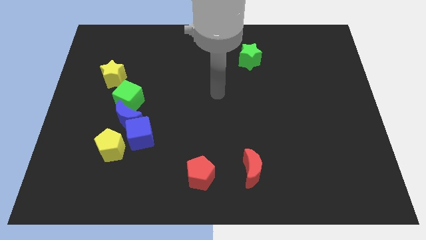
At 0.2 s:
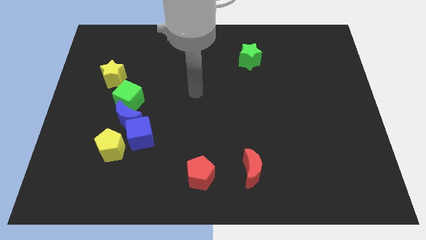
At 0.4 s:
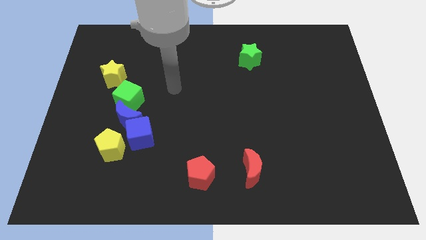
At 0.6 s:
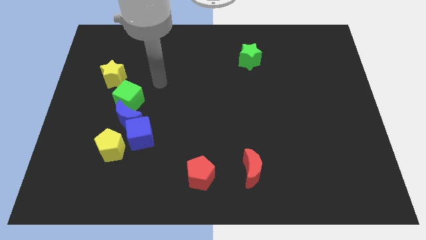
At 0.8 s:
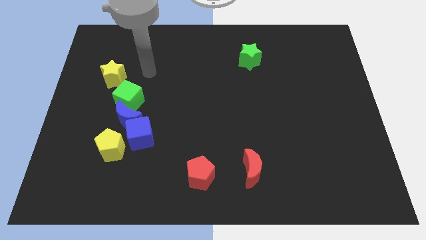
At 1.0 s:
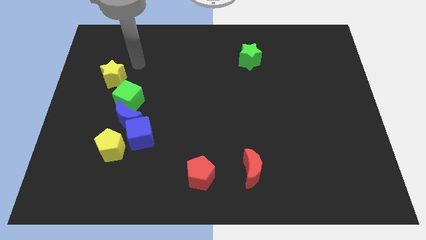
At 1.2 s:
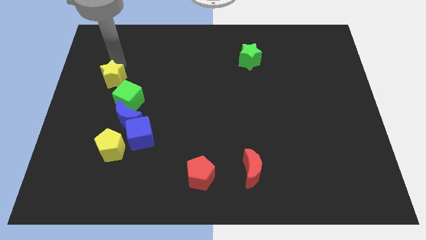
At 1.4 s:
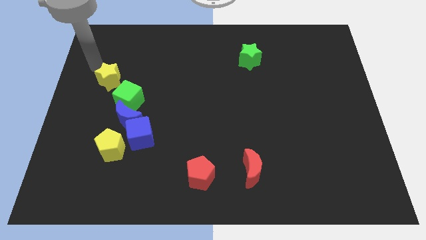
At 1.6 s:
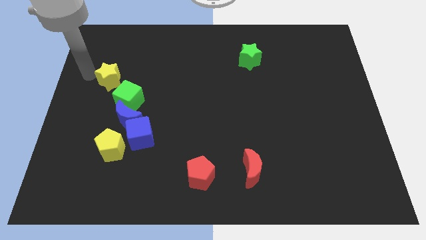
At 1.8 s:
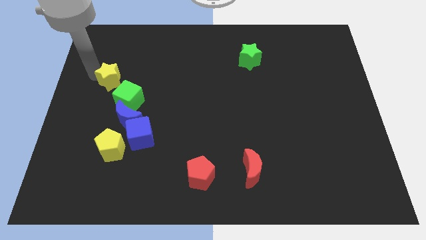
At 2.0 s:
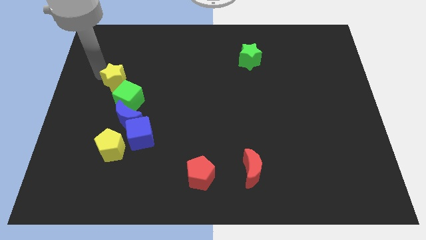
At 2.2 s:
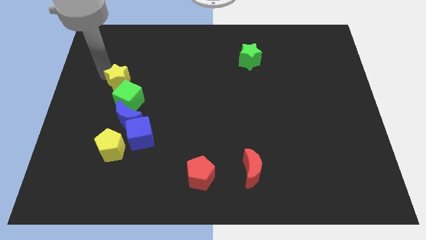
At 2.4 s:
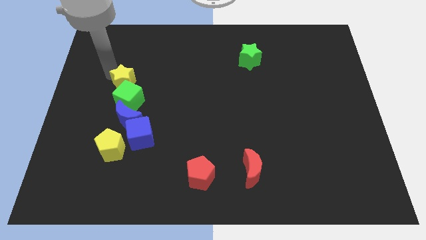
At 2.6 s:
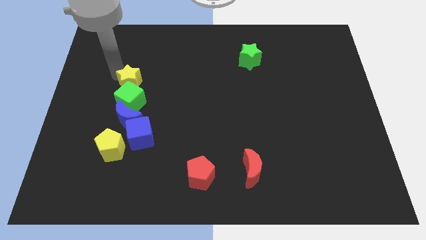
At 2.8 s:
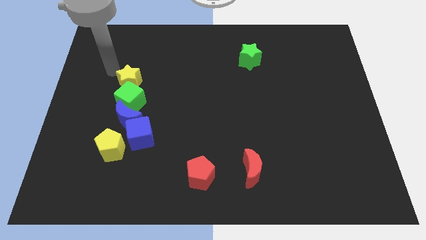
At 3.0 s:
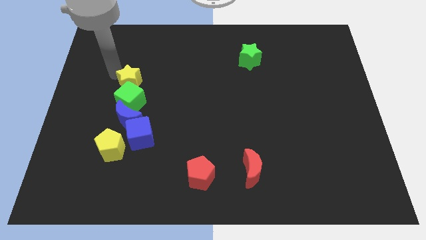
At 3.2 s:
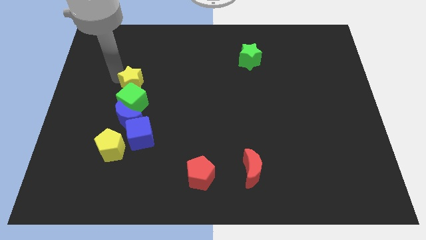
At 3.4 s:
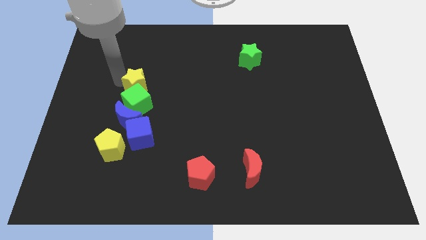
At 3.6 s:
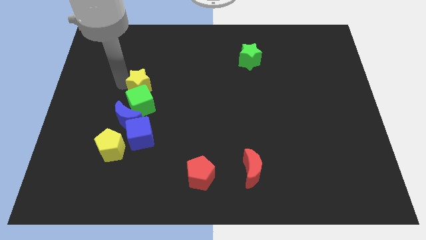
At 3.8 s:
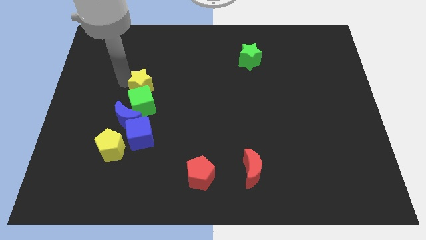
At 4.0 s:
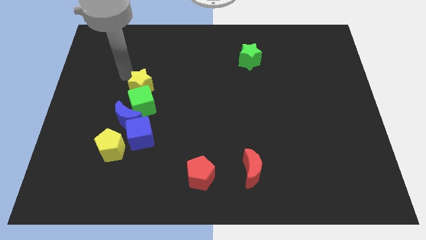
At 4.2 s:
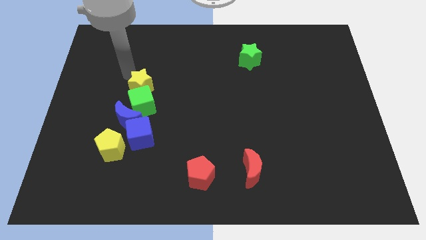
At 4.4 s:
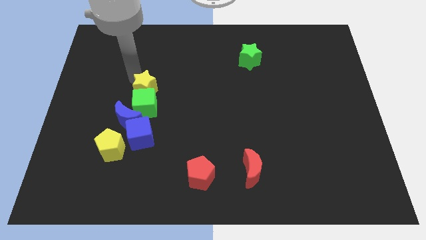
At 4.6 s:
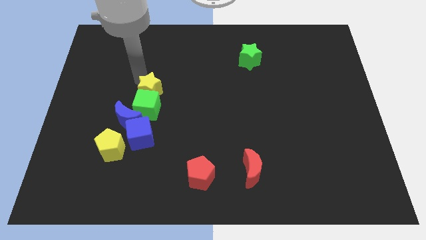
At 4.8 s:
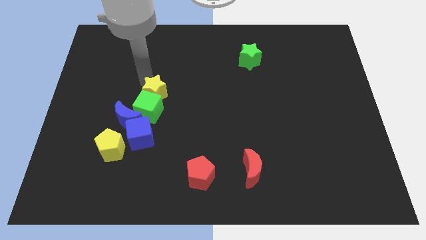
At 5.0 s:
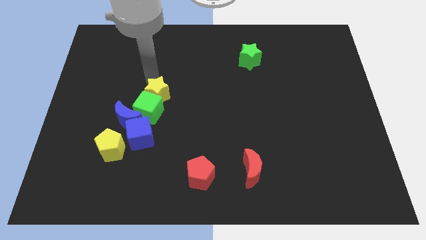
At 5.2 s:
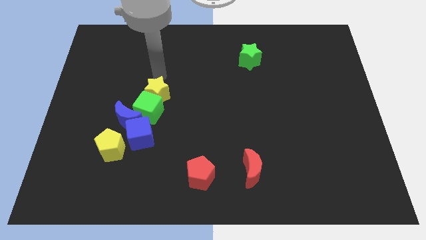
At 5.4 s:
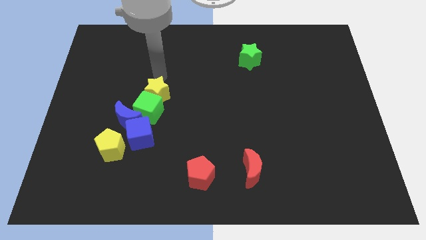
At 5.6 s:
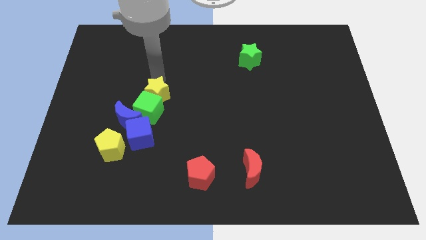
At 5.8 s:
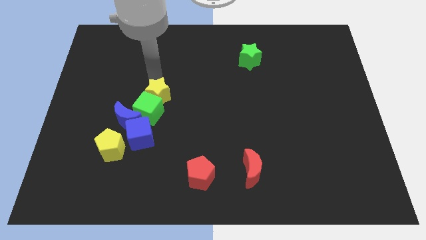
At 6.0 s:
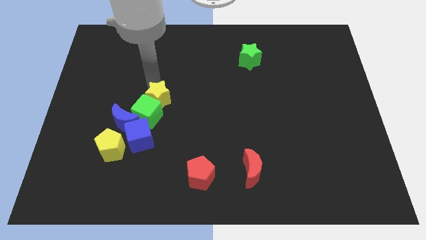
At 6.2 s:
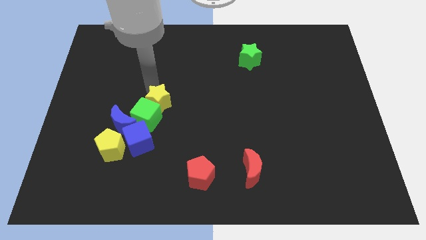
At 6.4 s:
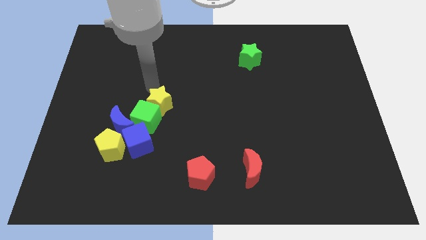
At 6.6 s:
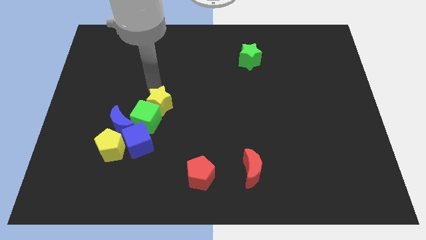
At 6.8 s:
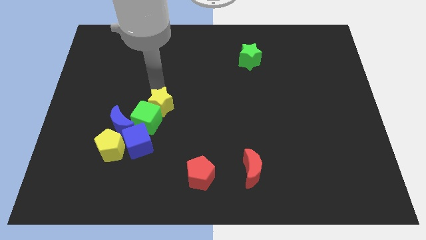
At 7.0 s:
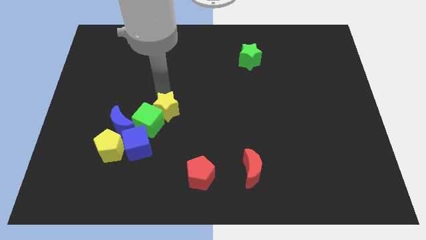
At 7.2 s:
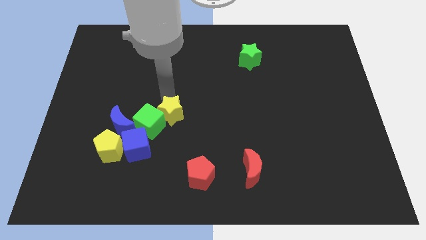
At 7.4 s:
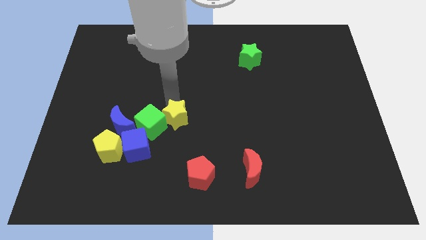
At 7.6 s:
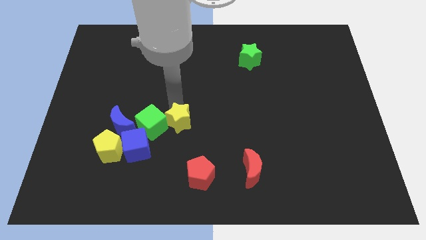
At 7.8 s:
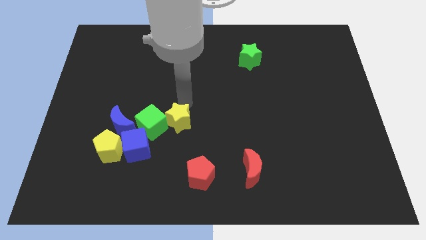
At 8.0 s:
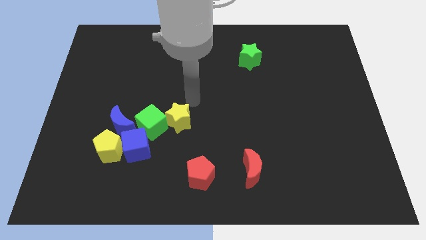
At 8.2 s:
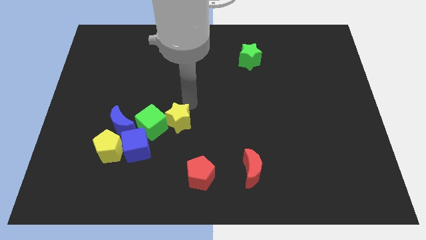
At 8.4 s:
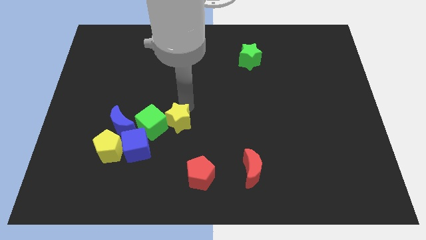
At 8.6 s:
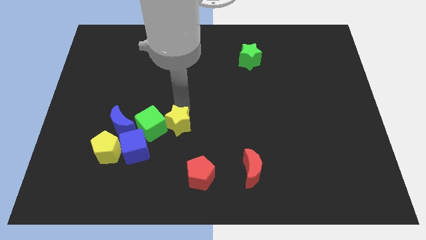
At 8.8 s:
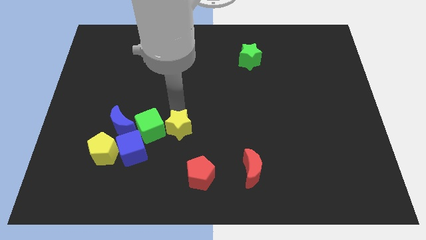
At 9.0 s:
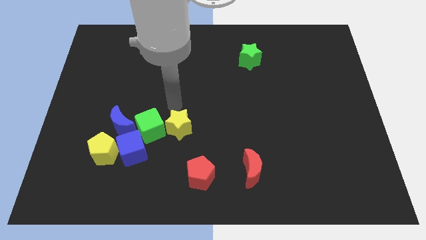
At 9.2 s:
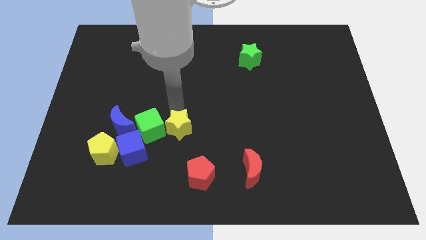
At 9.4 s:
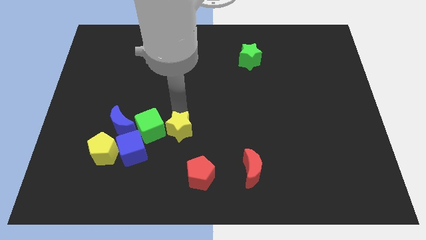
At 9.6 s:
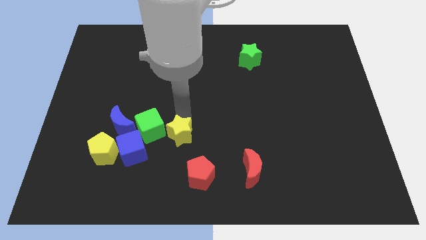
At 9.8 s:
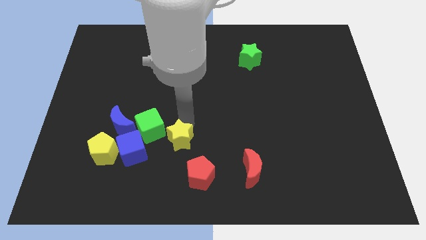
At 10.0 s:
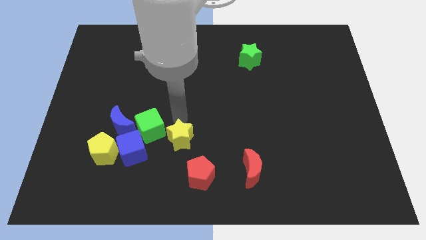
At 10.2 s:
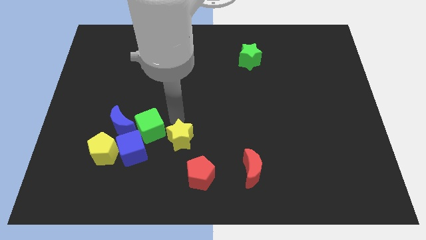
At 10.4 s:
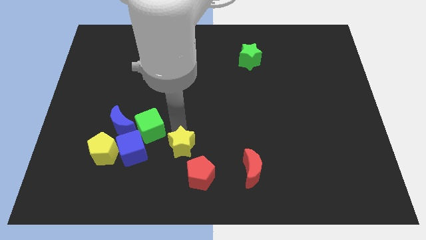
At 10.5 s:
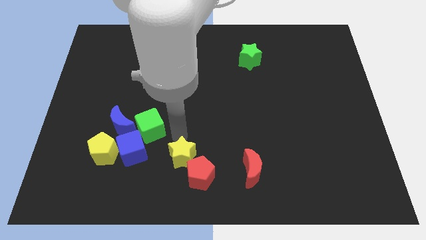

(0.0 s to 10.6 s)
move the yellow star to the red pentagon

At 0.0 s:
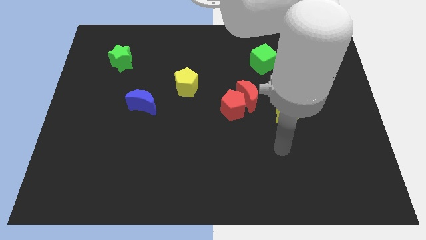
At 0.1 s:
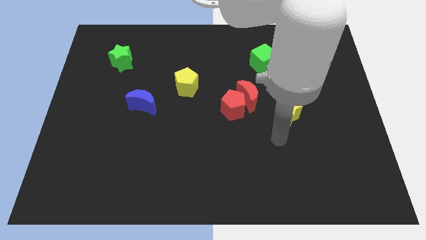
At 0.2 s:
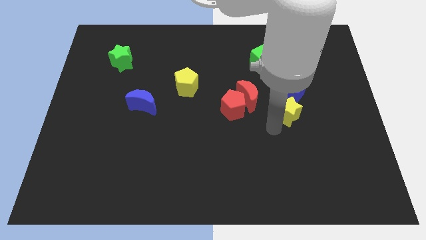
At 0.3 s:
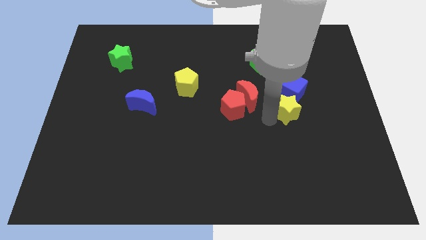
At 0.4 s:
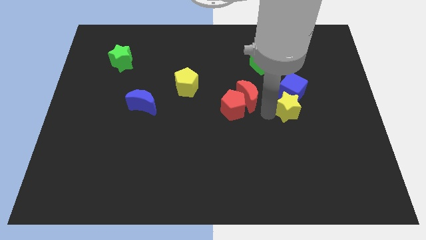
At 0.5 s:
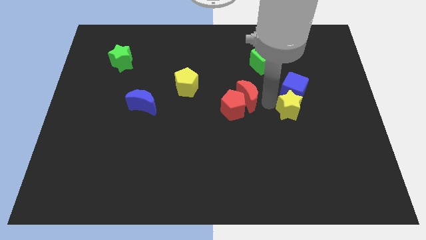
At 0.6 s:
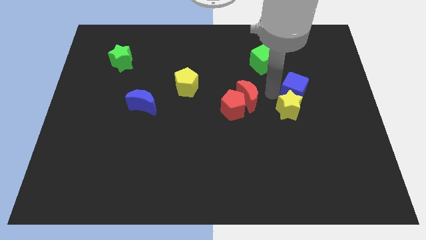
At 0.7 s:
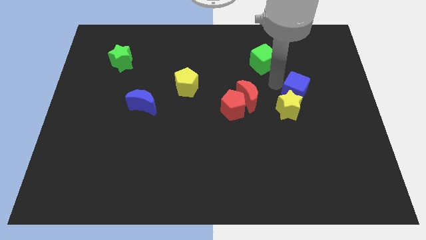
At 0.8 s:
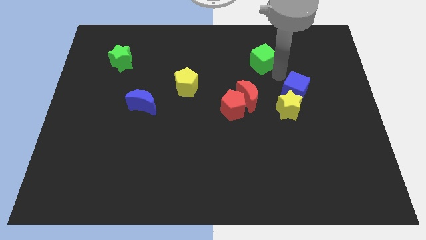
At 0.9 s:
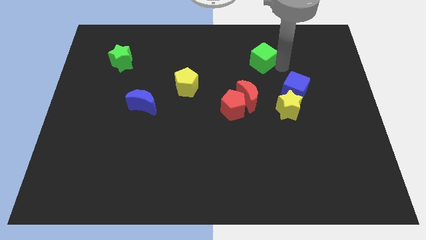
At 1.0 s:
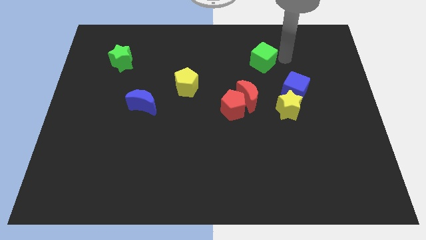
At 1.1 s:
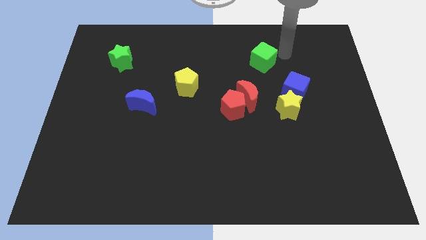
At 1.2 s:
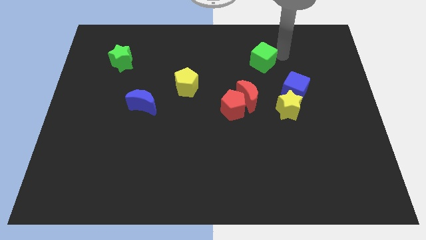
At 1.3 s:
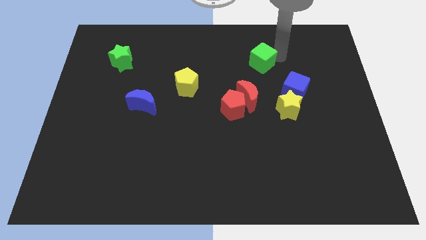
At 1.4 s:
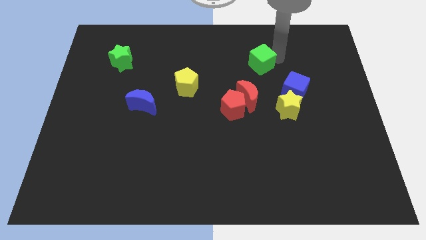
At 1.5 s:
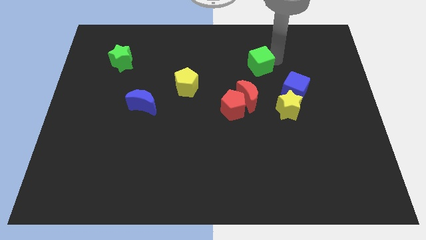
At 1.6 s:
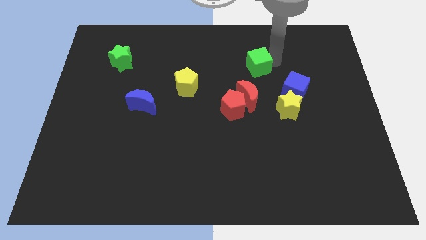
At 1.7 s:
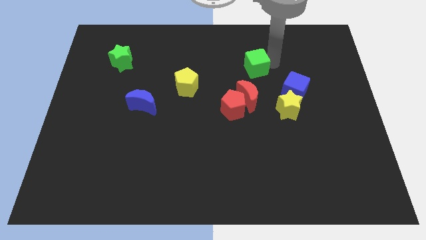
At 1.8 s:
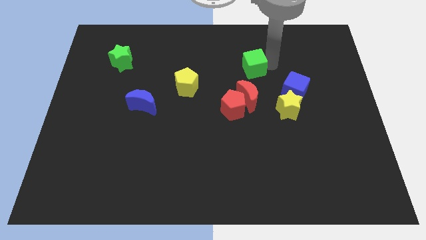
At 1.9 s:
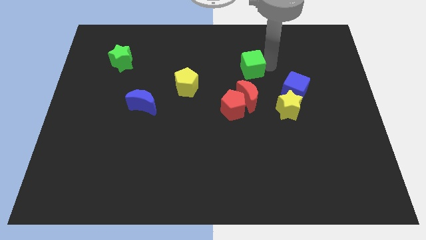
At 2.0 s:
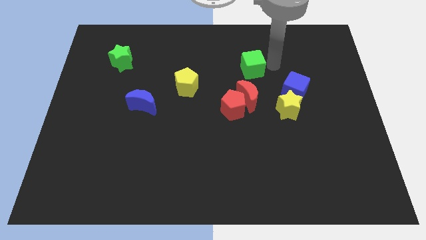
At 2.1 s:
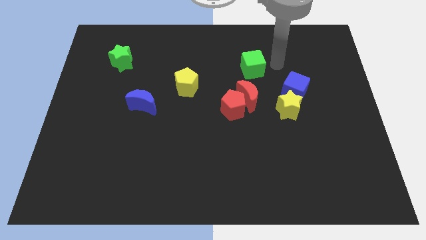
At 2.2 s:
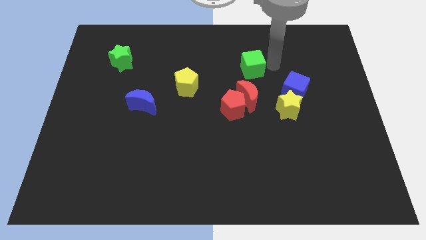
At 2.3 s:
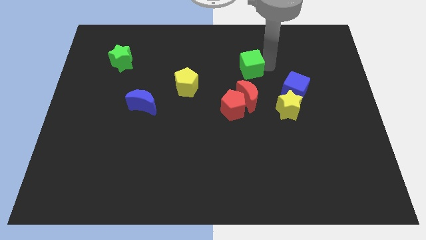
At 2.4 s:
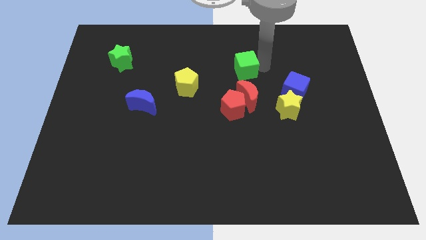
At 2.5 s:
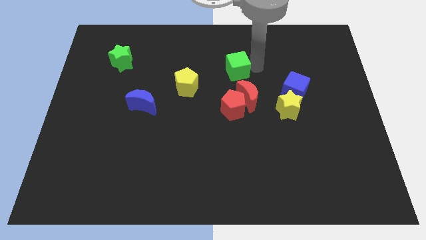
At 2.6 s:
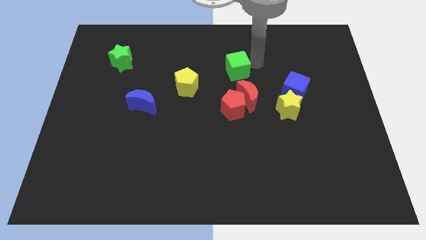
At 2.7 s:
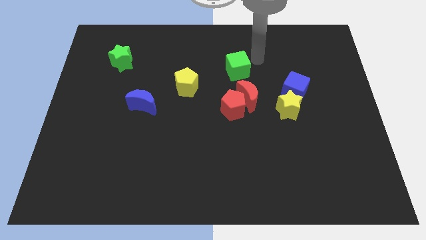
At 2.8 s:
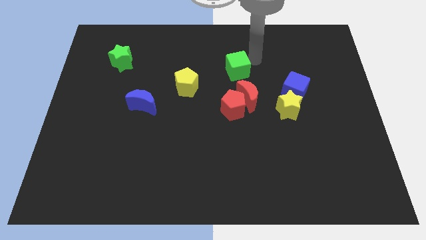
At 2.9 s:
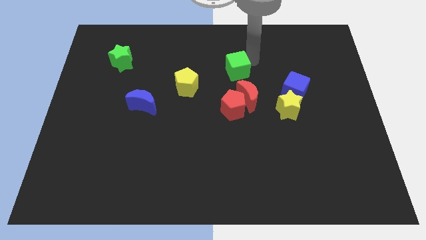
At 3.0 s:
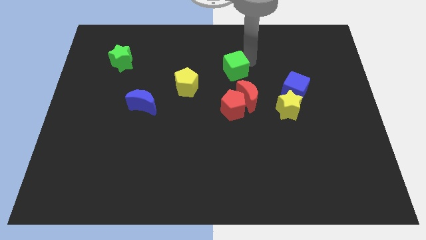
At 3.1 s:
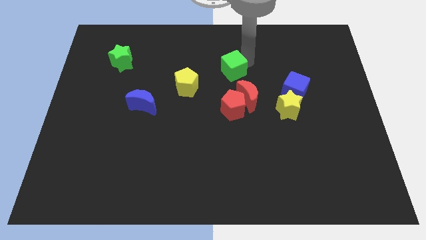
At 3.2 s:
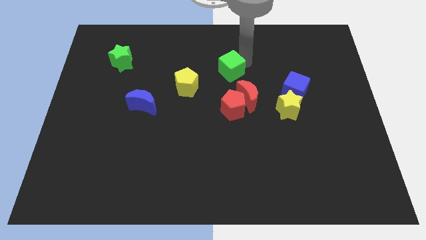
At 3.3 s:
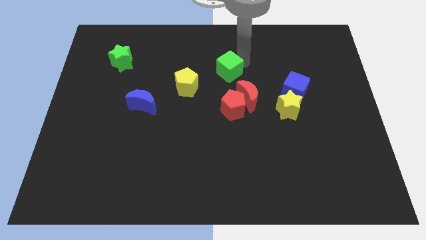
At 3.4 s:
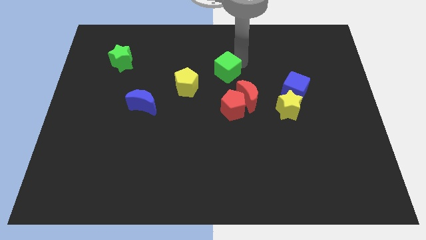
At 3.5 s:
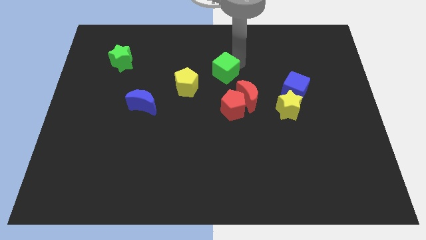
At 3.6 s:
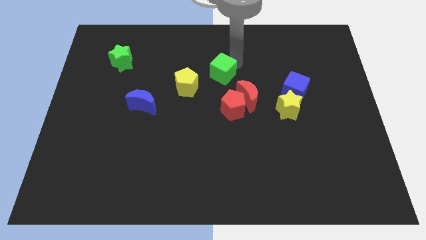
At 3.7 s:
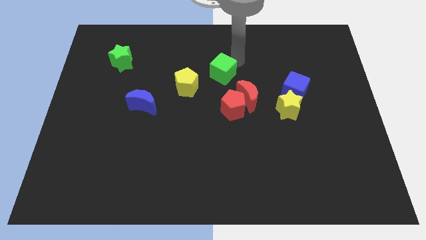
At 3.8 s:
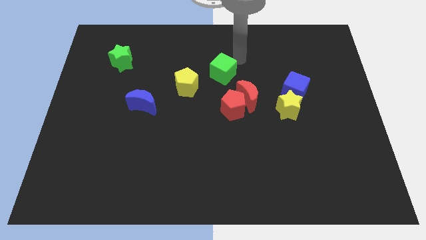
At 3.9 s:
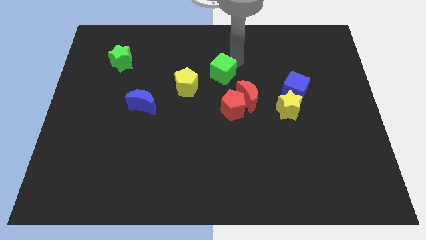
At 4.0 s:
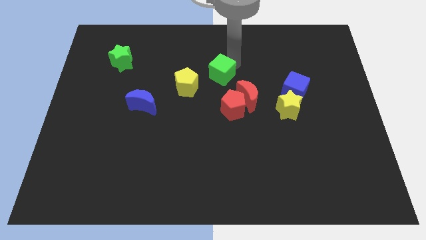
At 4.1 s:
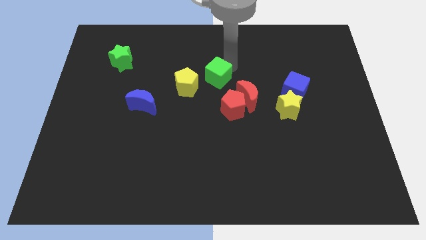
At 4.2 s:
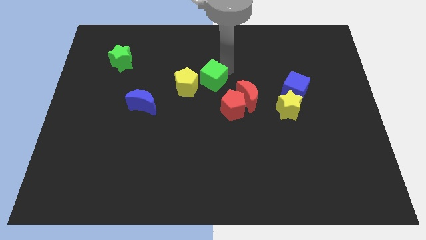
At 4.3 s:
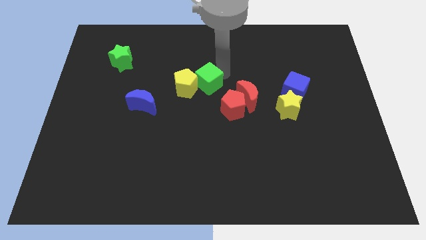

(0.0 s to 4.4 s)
move the green cube towards the yellow pentagon
